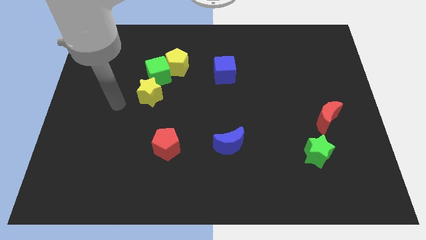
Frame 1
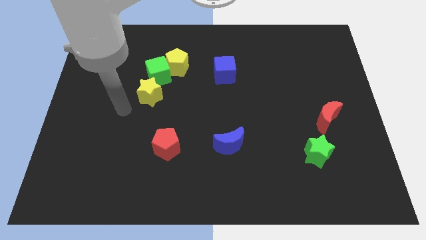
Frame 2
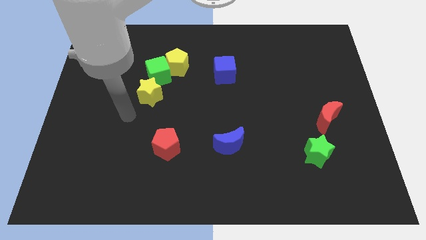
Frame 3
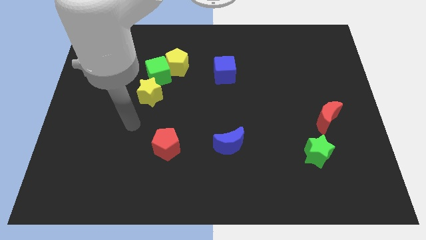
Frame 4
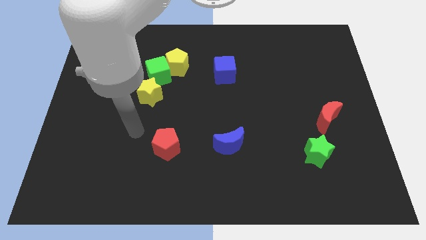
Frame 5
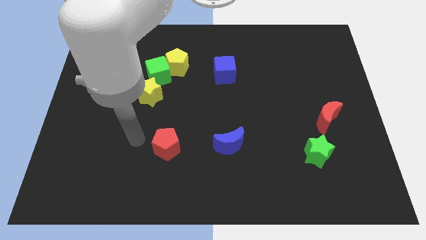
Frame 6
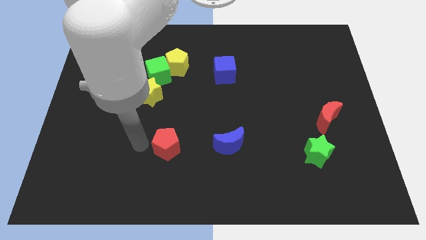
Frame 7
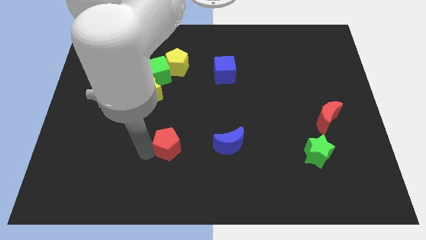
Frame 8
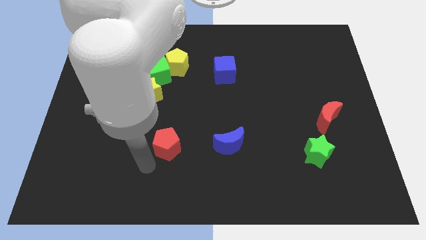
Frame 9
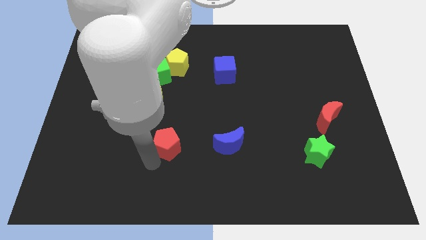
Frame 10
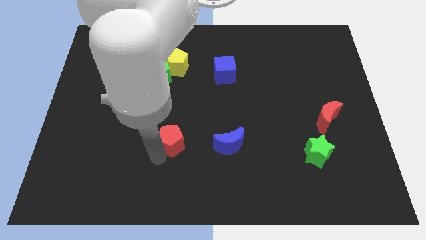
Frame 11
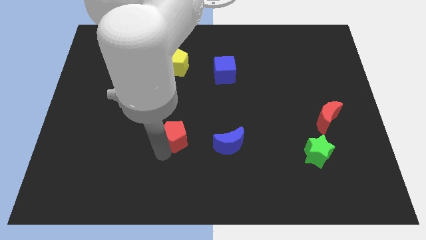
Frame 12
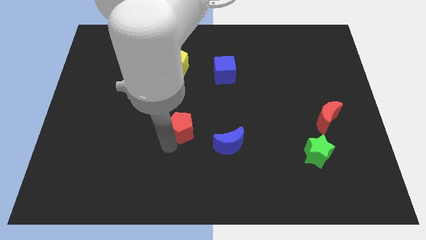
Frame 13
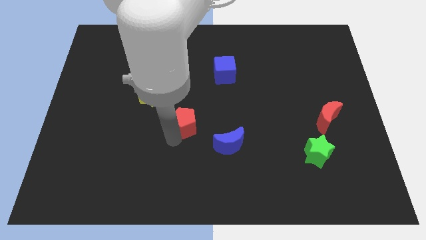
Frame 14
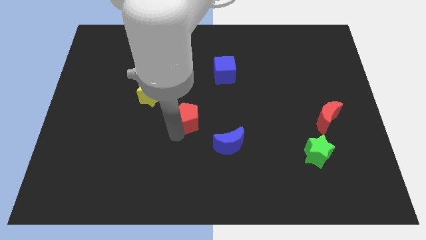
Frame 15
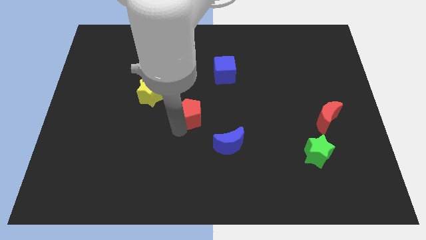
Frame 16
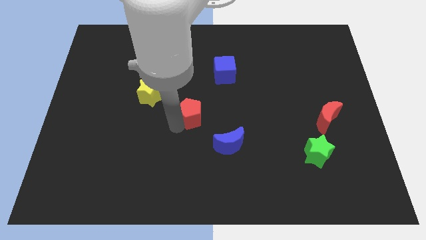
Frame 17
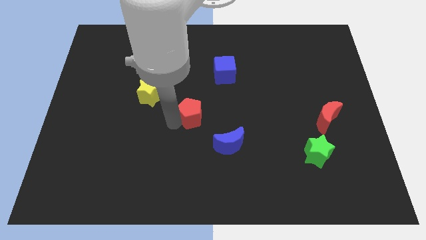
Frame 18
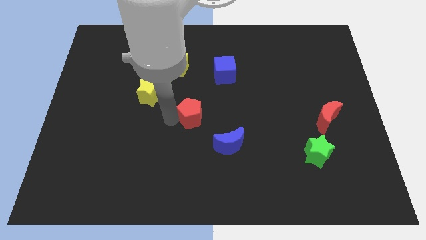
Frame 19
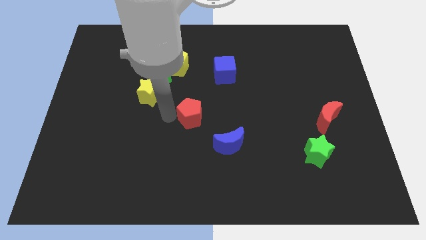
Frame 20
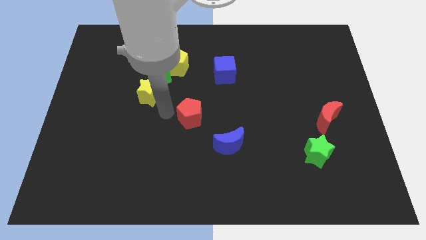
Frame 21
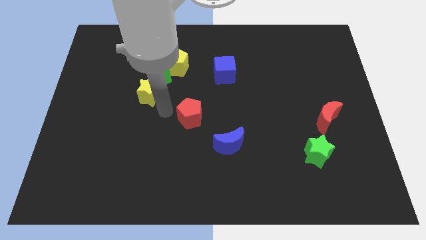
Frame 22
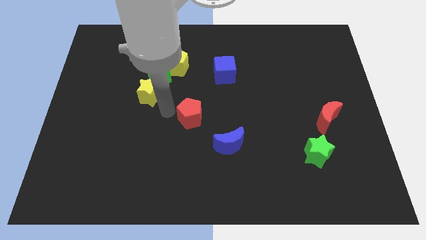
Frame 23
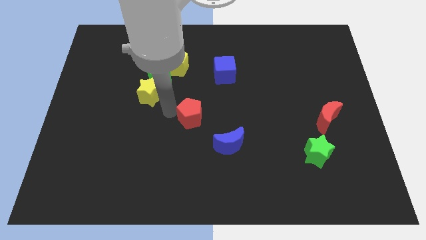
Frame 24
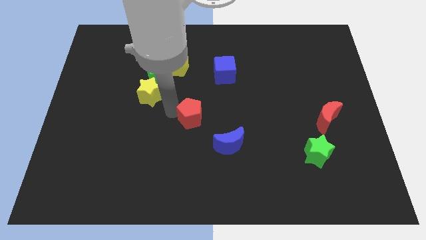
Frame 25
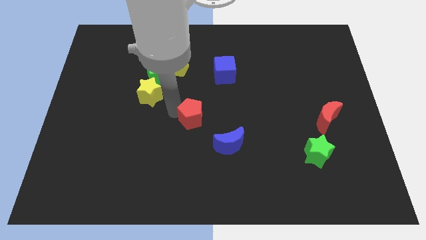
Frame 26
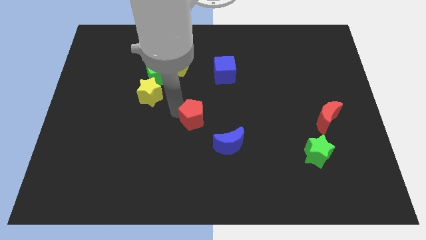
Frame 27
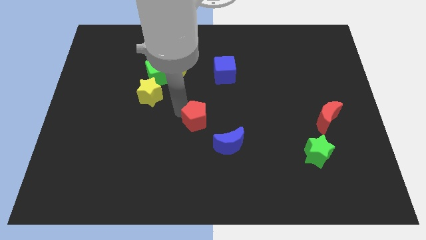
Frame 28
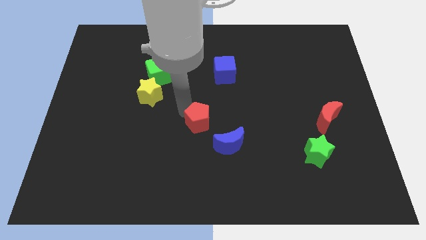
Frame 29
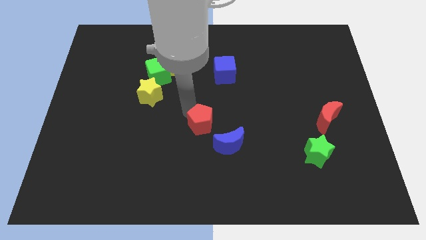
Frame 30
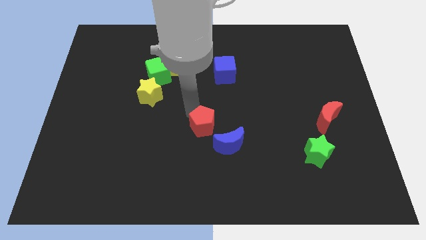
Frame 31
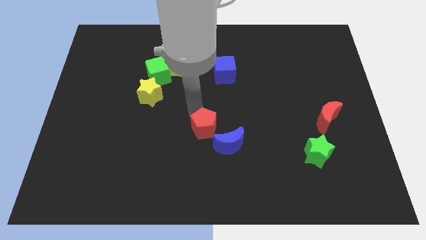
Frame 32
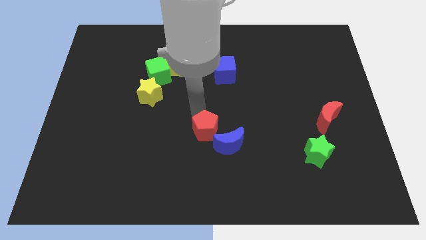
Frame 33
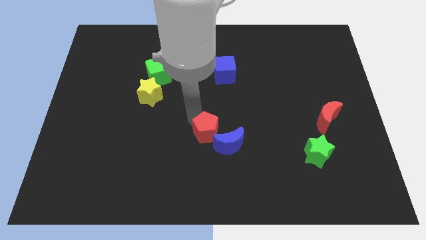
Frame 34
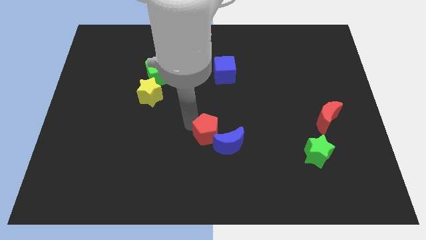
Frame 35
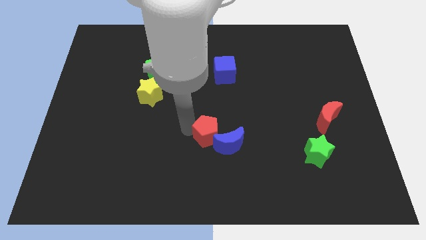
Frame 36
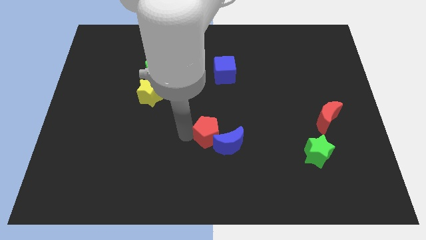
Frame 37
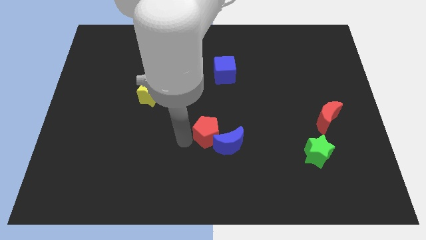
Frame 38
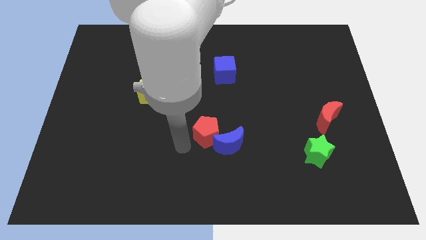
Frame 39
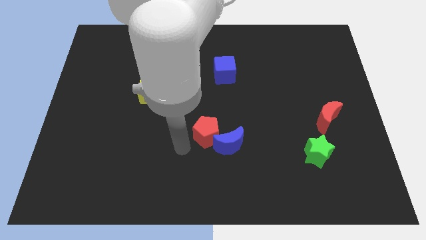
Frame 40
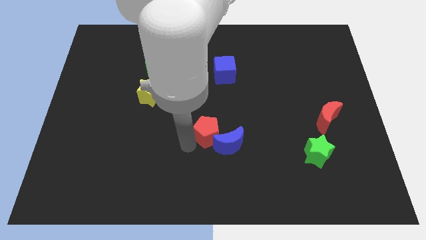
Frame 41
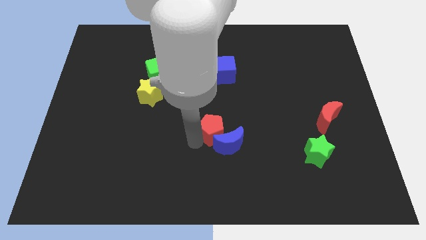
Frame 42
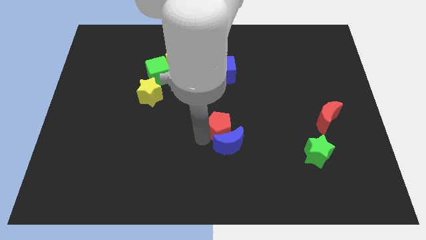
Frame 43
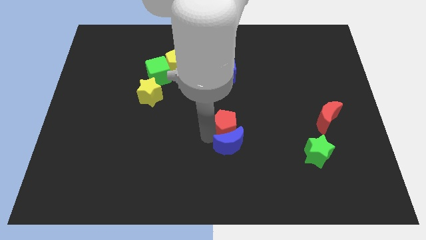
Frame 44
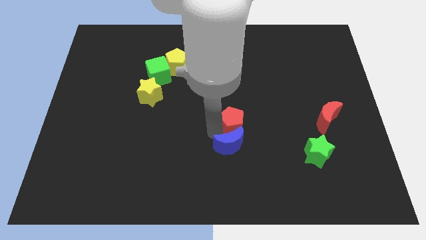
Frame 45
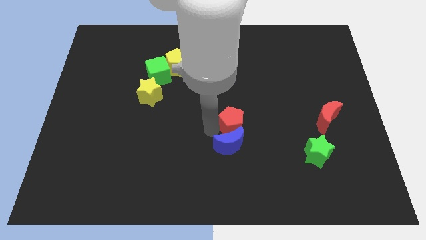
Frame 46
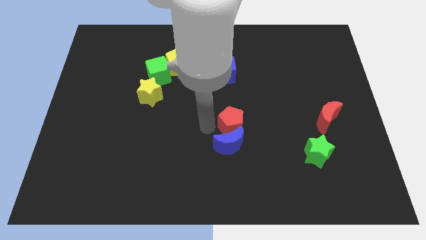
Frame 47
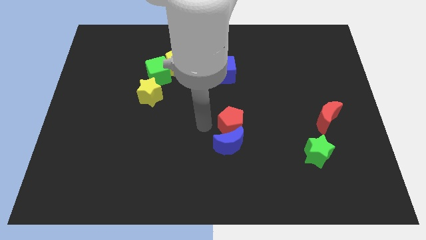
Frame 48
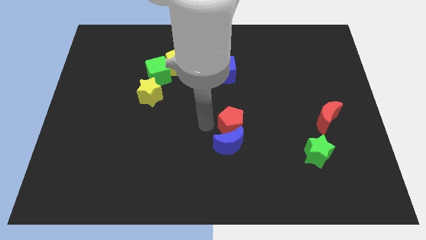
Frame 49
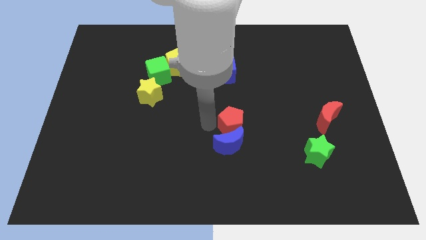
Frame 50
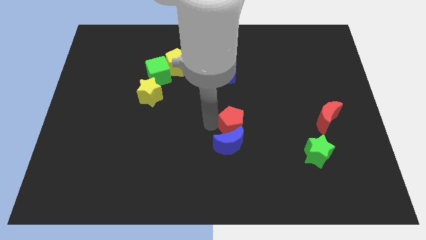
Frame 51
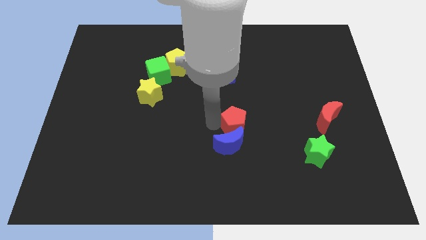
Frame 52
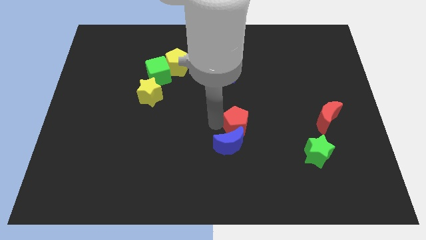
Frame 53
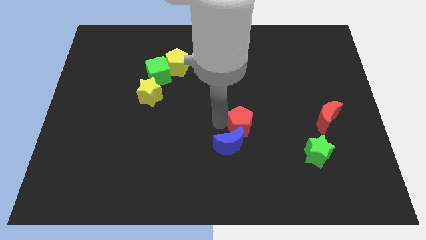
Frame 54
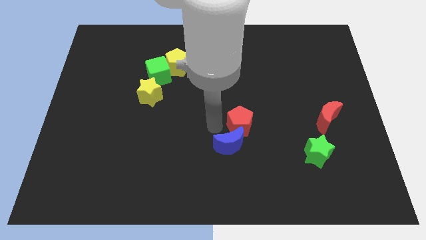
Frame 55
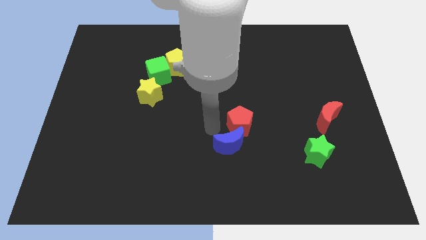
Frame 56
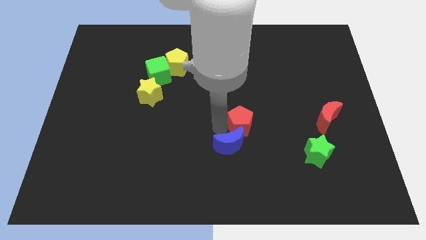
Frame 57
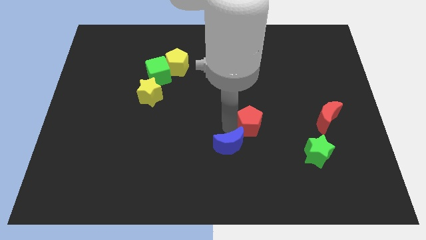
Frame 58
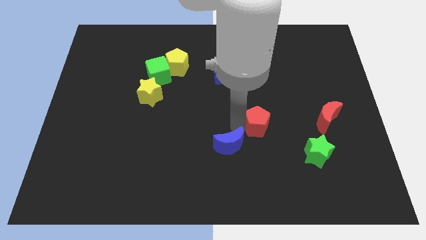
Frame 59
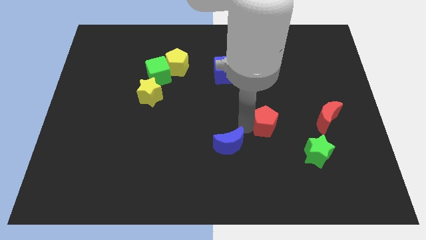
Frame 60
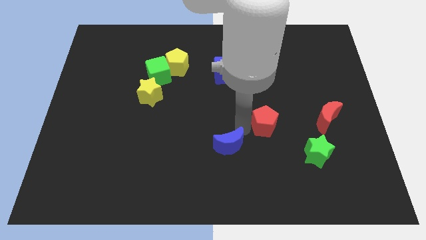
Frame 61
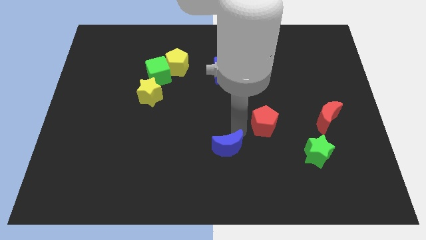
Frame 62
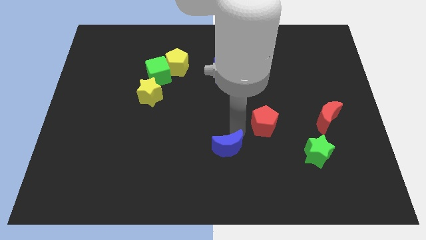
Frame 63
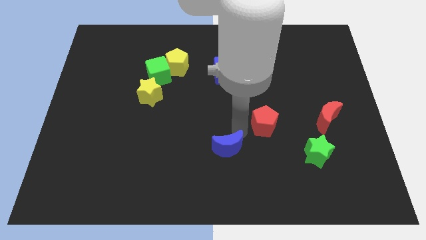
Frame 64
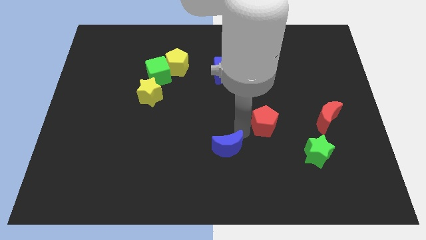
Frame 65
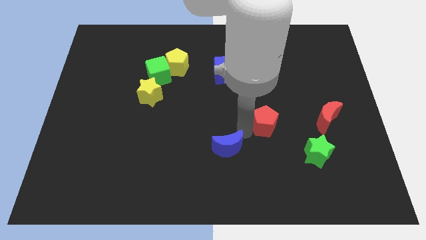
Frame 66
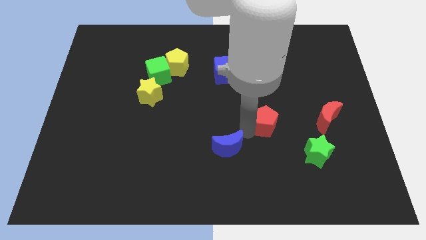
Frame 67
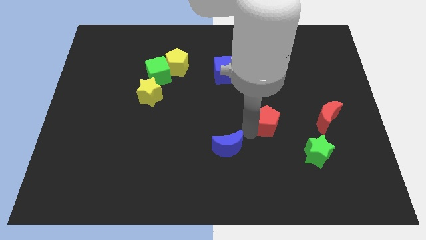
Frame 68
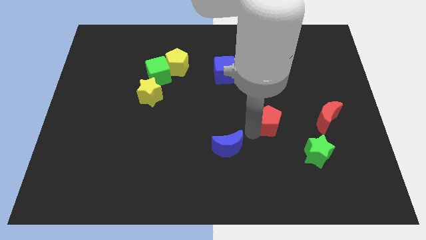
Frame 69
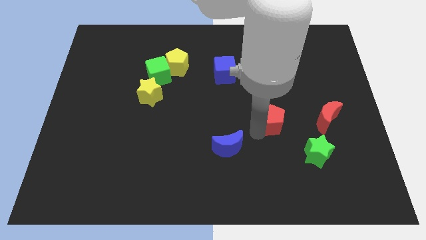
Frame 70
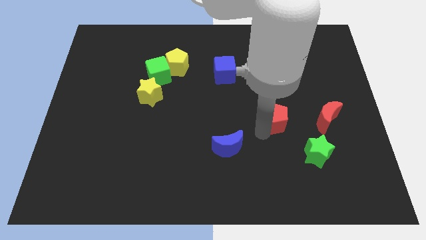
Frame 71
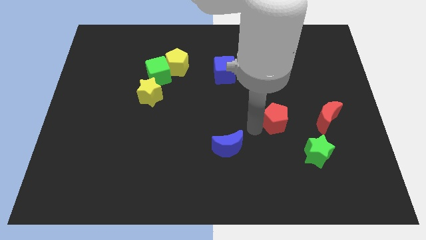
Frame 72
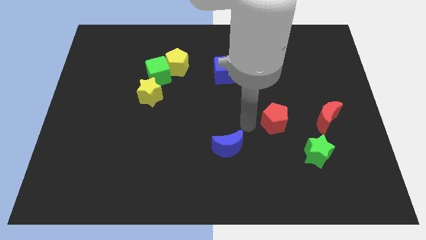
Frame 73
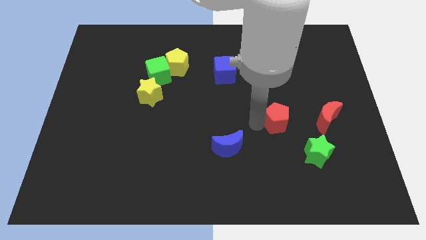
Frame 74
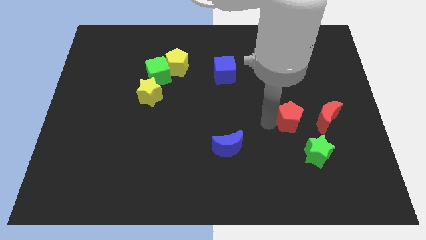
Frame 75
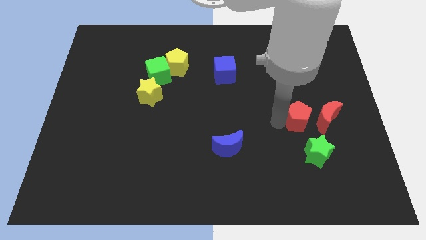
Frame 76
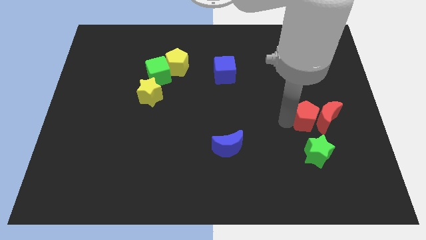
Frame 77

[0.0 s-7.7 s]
move the red pentagon to the red moon
